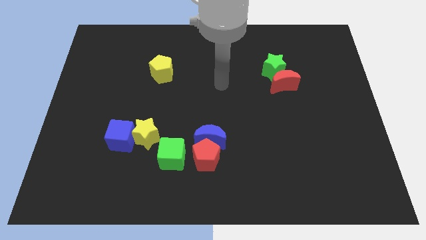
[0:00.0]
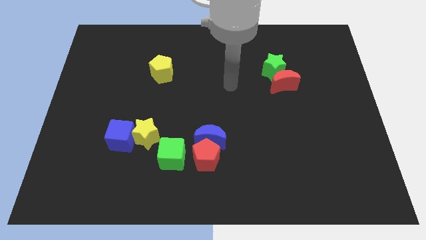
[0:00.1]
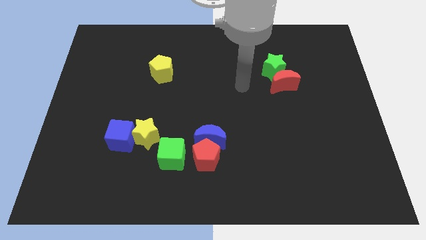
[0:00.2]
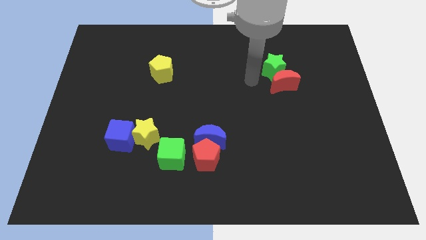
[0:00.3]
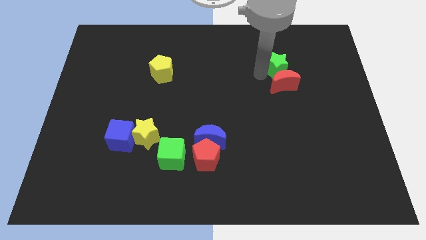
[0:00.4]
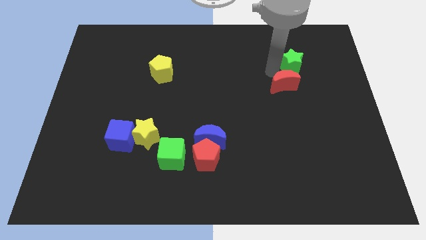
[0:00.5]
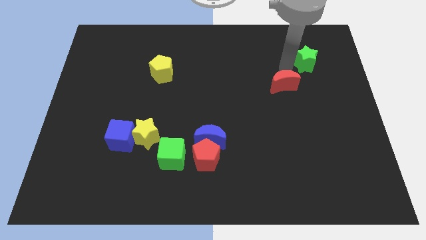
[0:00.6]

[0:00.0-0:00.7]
separate the red moon from the green star

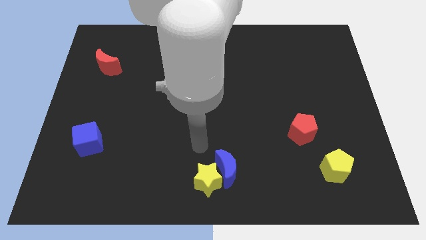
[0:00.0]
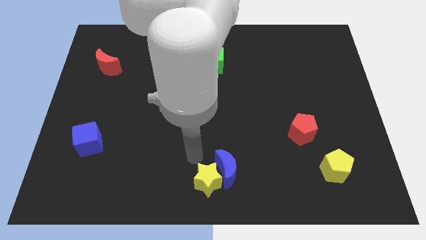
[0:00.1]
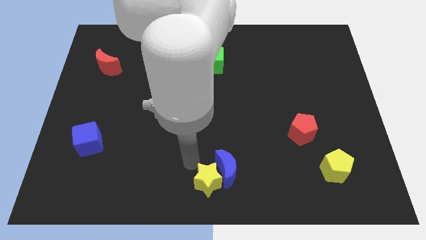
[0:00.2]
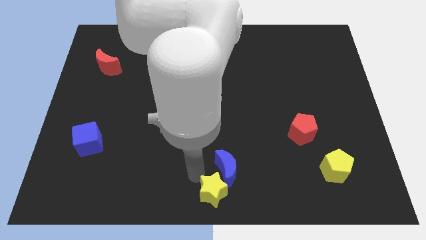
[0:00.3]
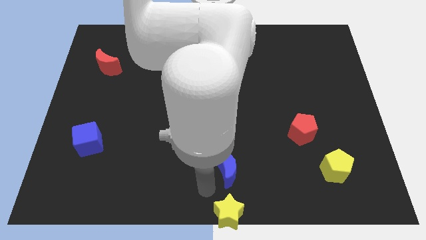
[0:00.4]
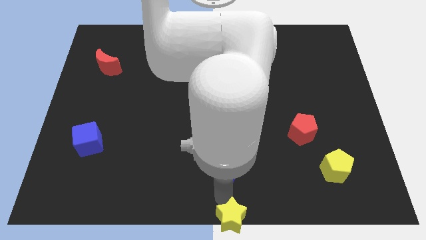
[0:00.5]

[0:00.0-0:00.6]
separate the blue moon from the yellow star

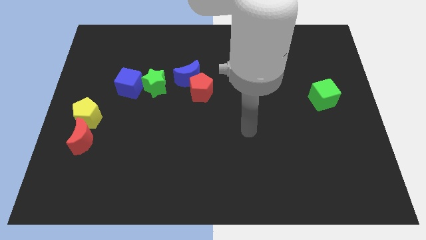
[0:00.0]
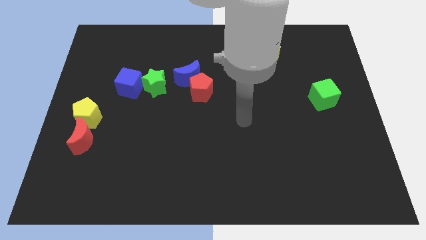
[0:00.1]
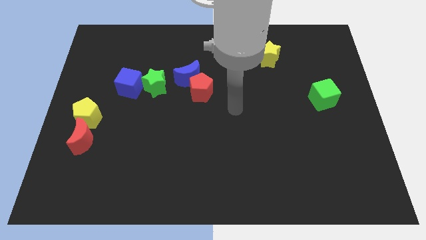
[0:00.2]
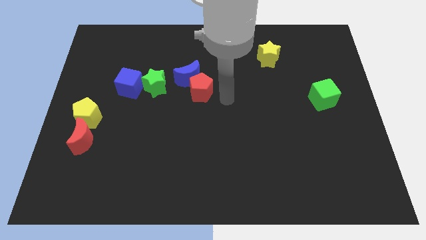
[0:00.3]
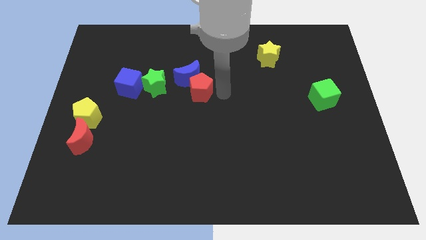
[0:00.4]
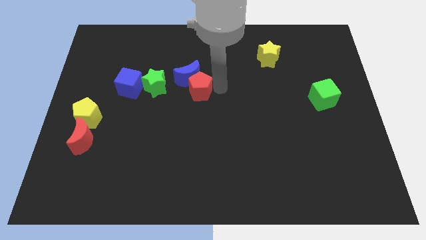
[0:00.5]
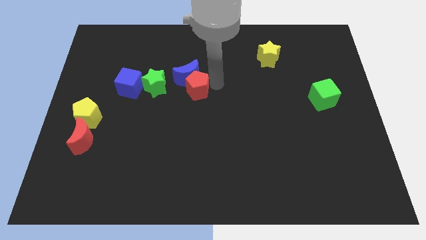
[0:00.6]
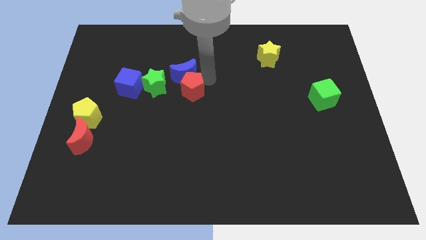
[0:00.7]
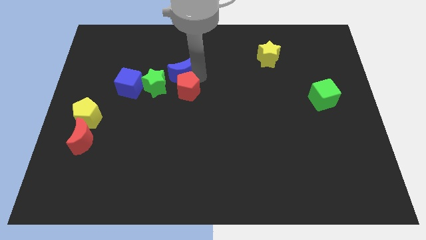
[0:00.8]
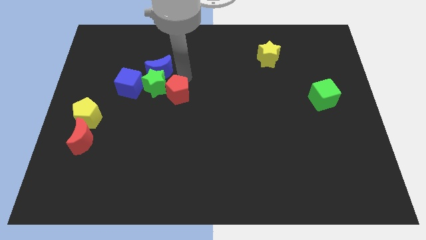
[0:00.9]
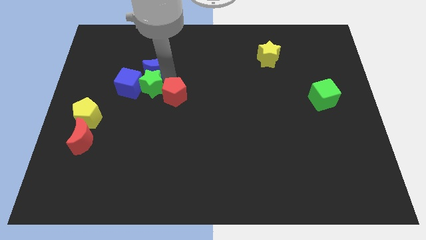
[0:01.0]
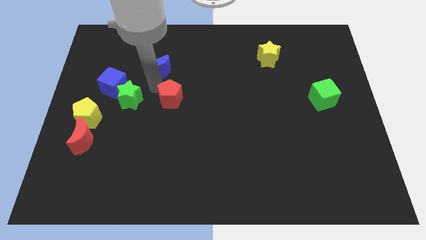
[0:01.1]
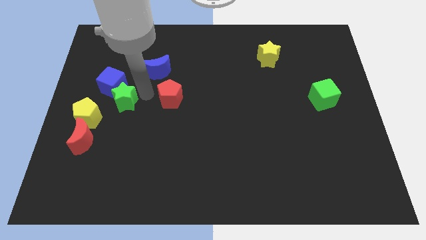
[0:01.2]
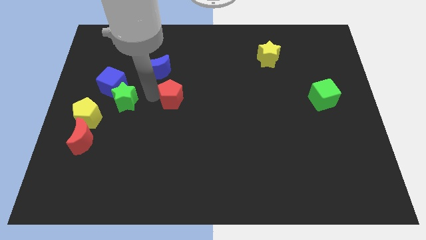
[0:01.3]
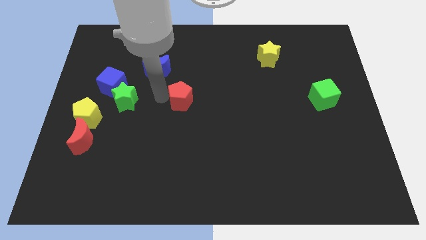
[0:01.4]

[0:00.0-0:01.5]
move the red pentagon away from the blue moon

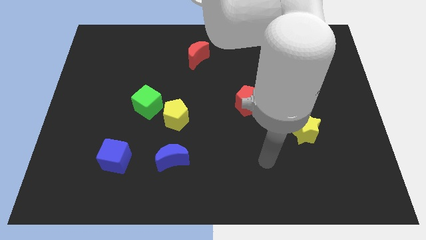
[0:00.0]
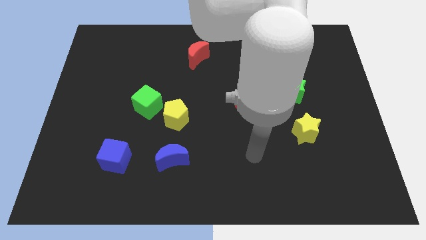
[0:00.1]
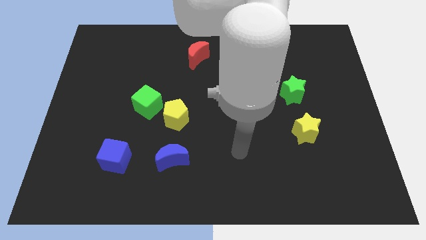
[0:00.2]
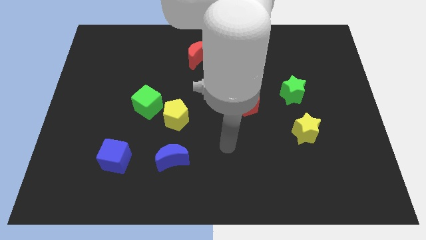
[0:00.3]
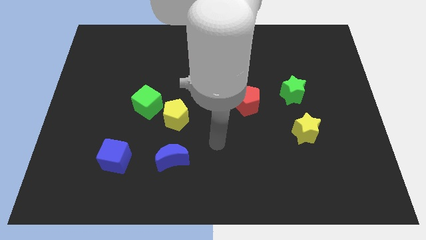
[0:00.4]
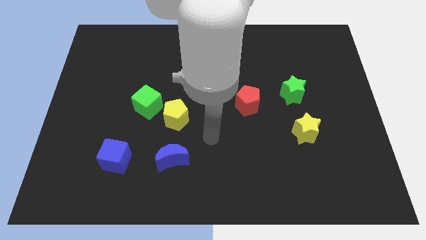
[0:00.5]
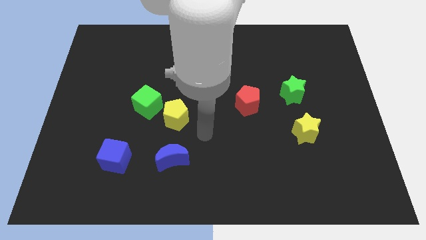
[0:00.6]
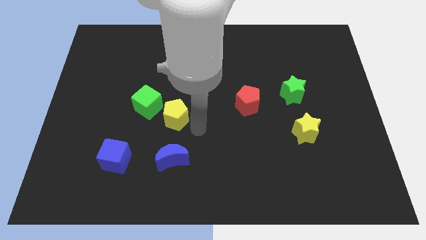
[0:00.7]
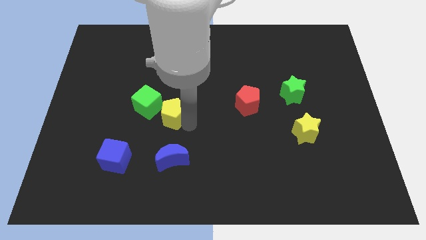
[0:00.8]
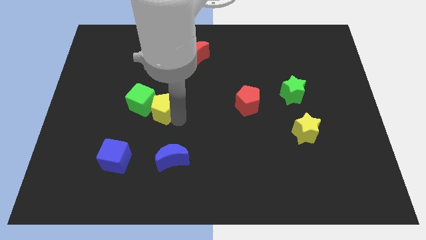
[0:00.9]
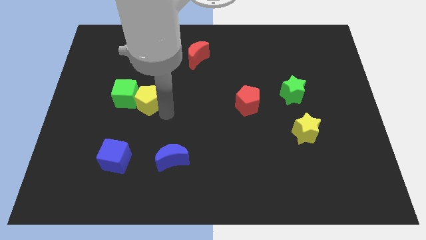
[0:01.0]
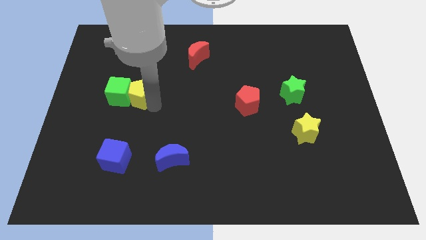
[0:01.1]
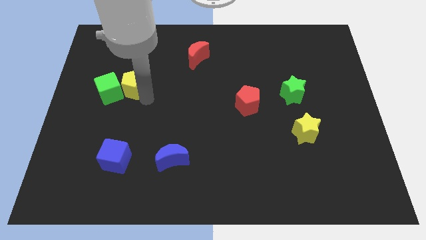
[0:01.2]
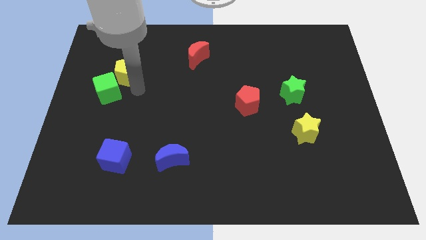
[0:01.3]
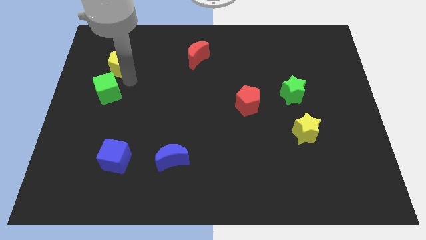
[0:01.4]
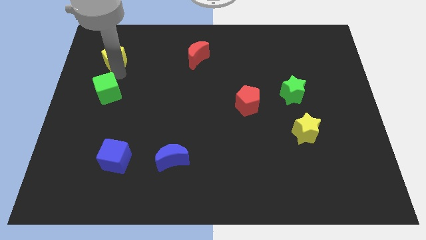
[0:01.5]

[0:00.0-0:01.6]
separate the green cube from the yellow pentagon

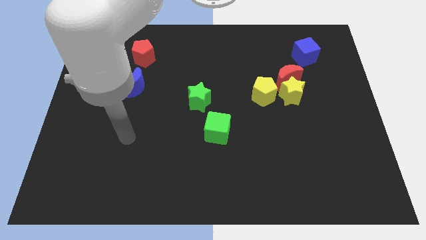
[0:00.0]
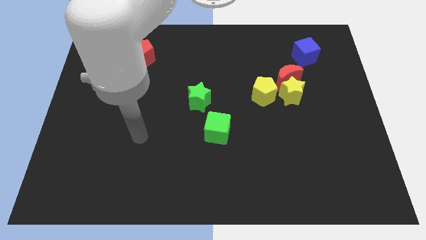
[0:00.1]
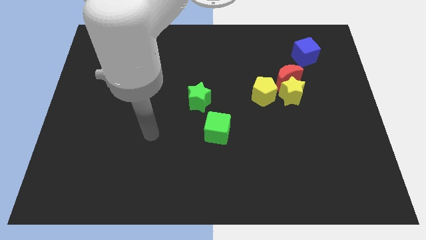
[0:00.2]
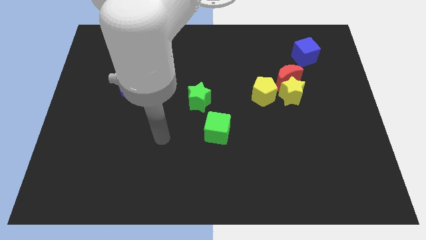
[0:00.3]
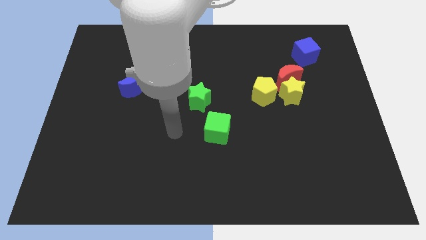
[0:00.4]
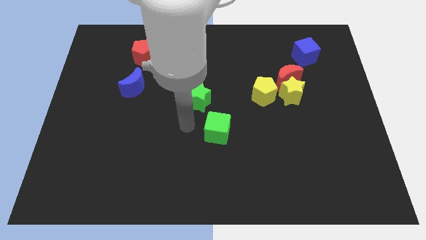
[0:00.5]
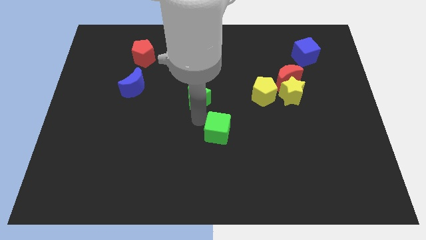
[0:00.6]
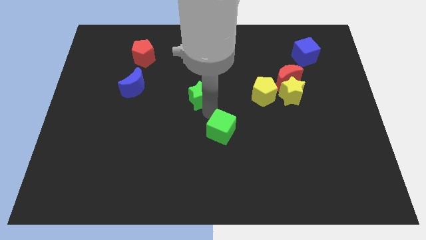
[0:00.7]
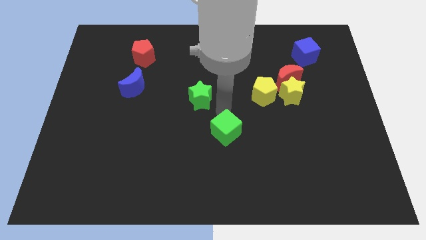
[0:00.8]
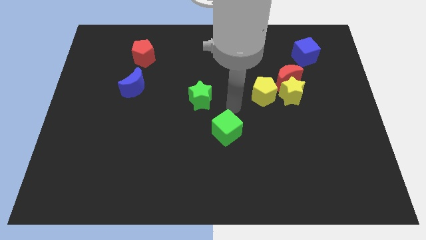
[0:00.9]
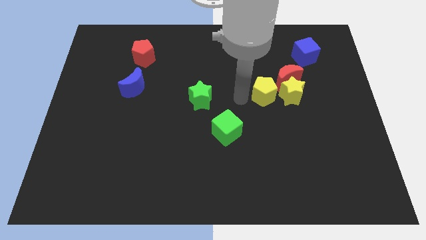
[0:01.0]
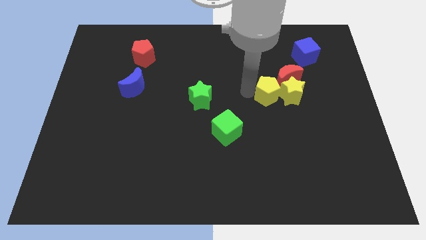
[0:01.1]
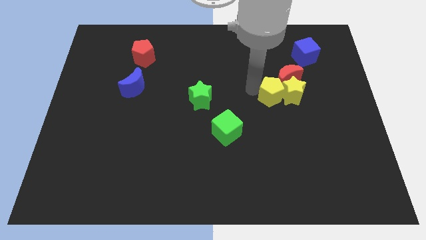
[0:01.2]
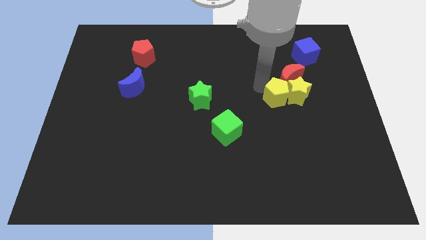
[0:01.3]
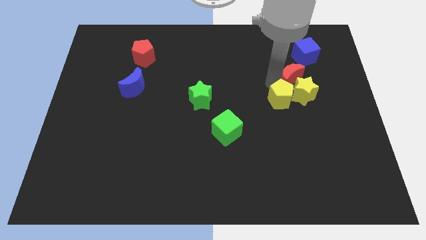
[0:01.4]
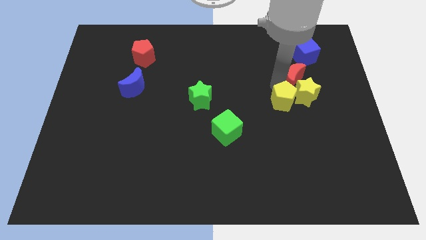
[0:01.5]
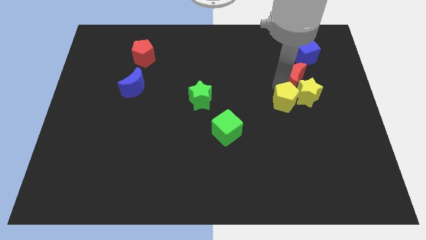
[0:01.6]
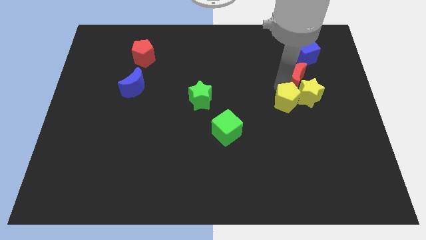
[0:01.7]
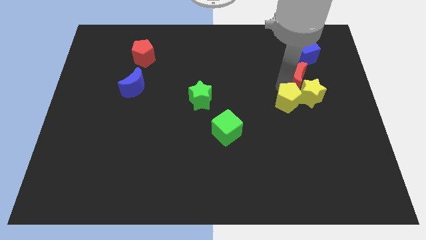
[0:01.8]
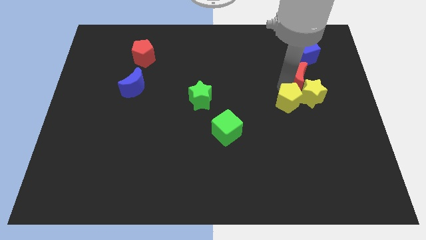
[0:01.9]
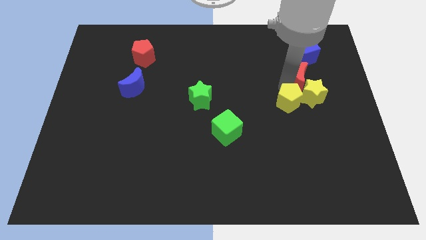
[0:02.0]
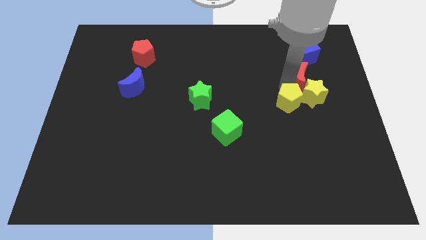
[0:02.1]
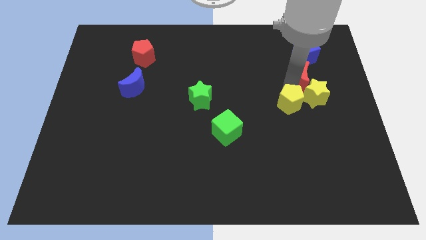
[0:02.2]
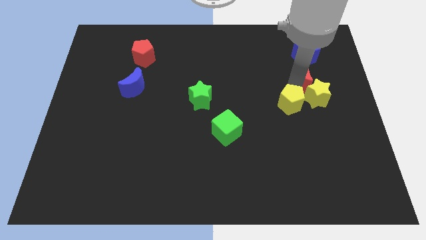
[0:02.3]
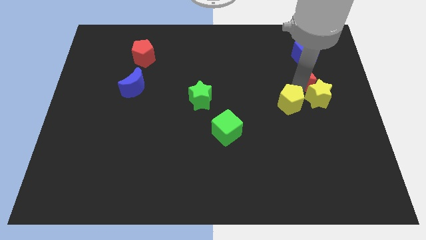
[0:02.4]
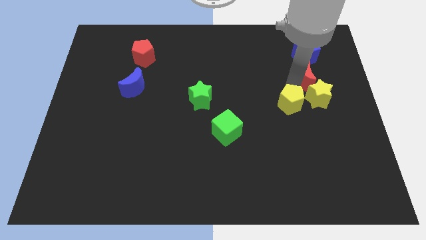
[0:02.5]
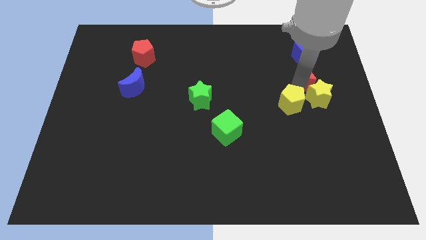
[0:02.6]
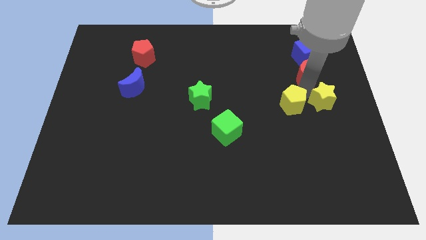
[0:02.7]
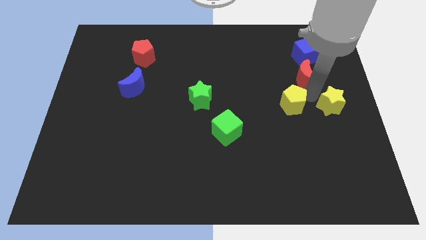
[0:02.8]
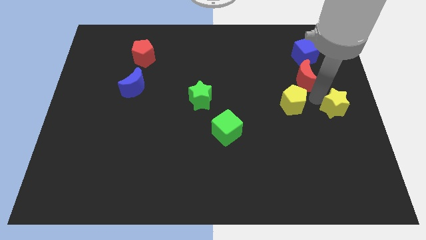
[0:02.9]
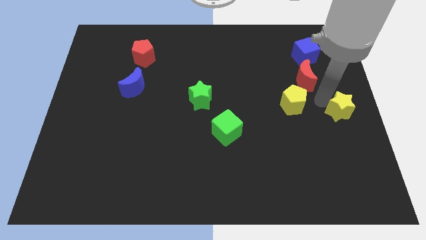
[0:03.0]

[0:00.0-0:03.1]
separate the yellow star from the red moon and yellow pentagon

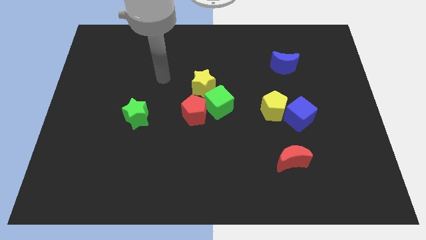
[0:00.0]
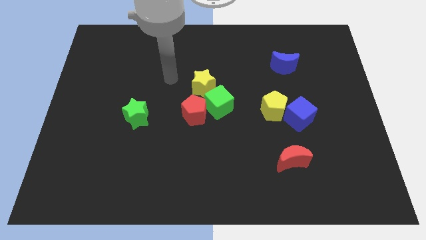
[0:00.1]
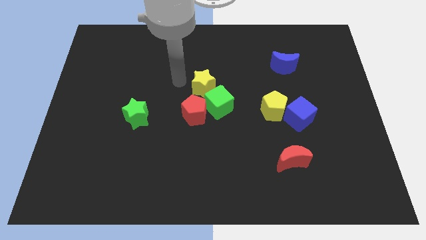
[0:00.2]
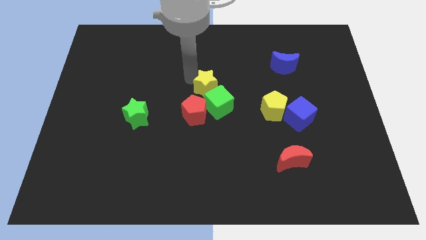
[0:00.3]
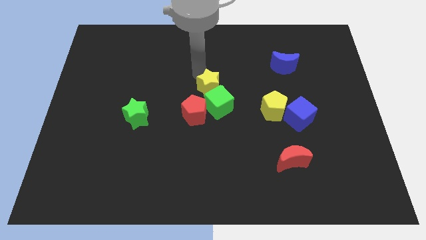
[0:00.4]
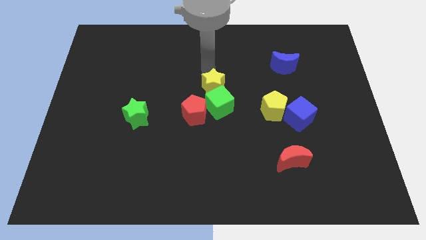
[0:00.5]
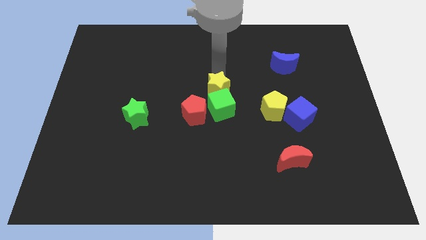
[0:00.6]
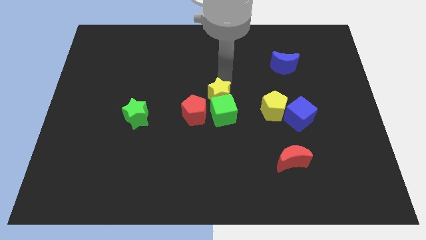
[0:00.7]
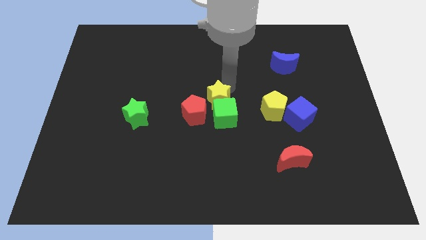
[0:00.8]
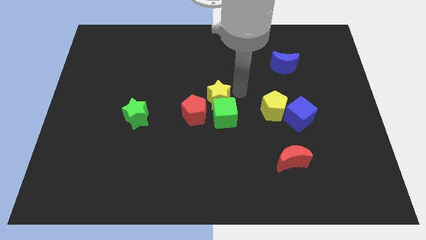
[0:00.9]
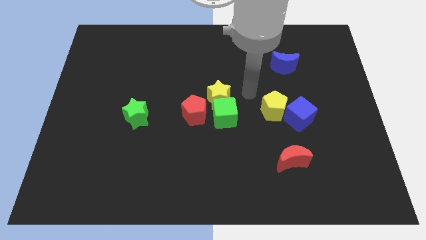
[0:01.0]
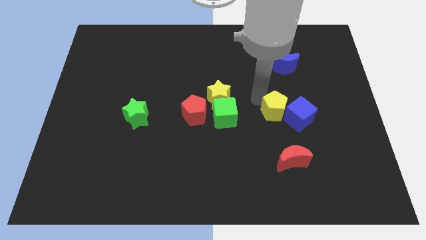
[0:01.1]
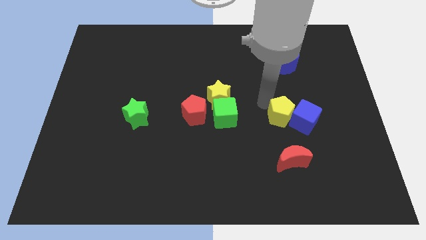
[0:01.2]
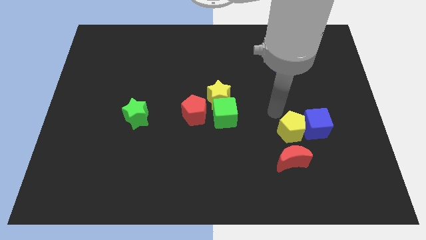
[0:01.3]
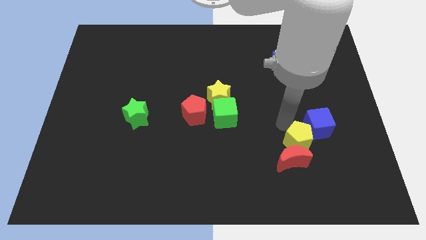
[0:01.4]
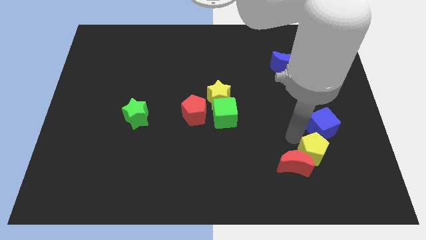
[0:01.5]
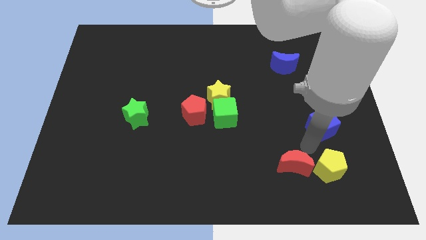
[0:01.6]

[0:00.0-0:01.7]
separate the blue cube from the yellow pentagon

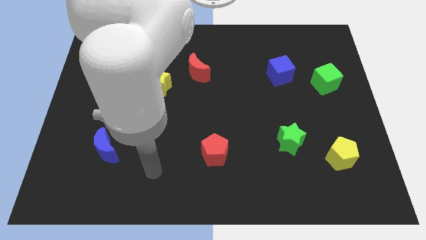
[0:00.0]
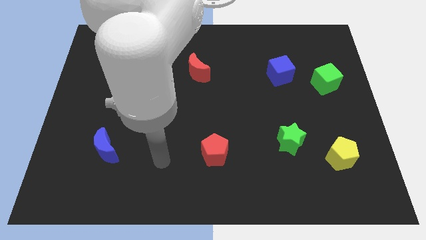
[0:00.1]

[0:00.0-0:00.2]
pull the red moon apart from the yellow star

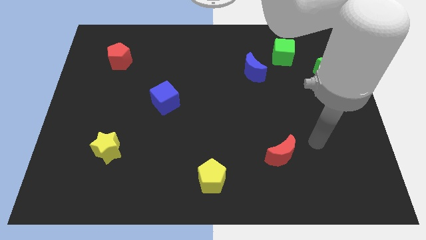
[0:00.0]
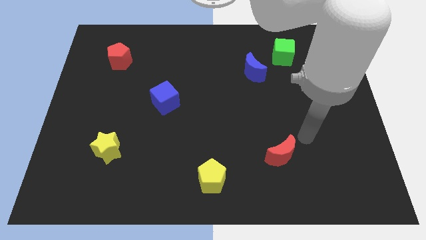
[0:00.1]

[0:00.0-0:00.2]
pull the blue moon apart from the green cube
